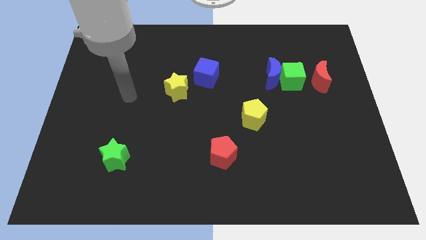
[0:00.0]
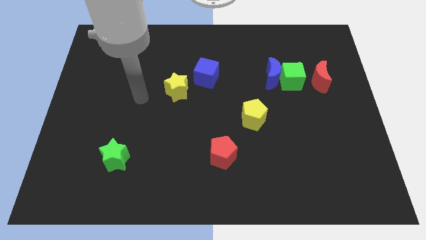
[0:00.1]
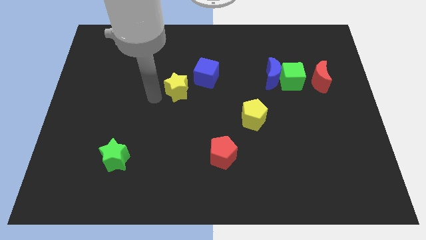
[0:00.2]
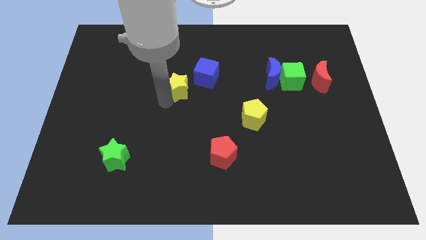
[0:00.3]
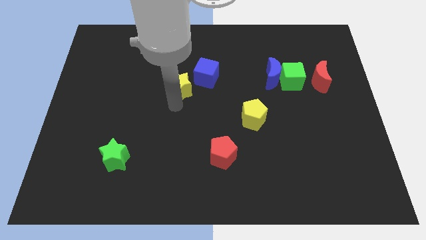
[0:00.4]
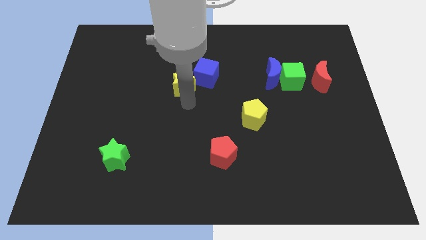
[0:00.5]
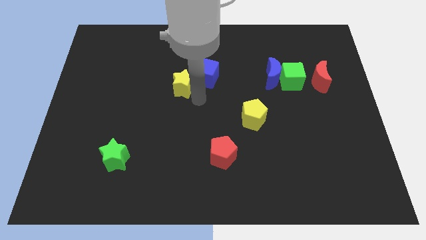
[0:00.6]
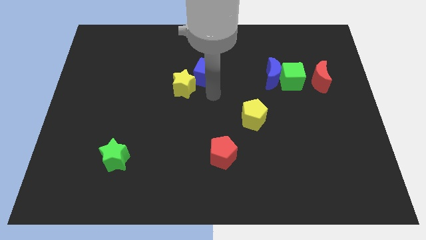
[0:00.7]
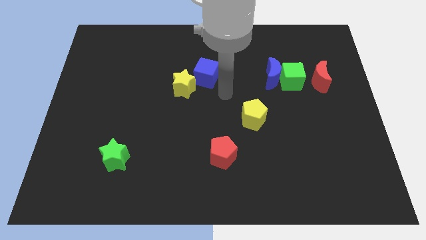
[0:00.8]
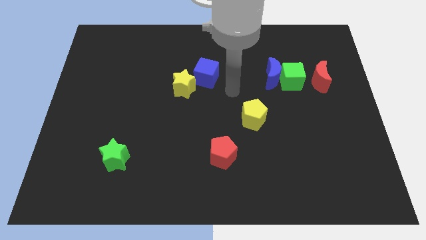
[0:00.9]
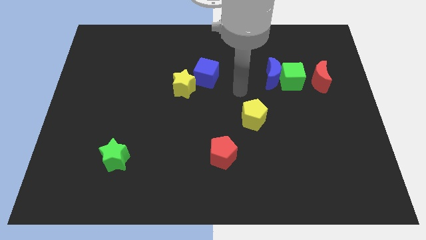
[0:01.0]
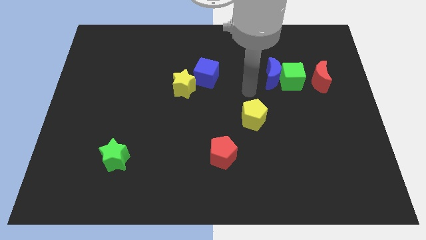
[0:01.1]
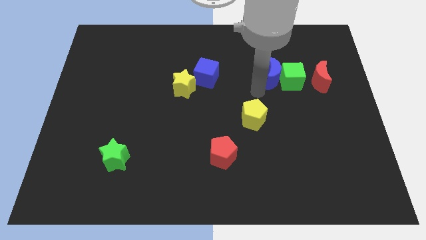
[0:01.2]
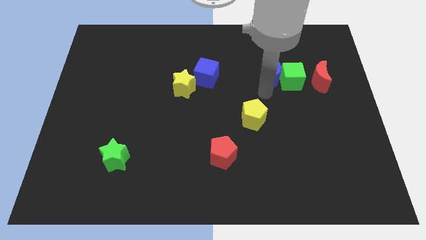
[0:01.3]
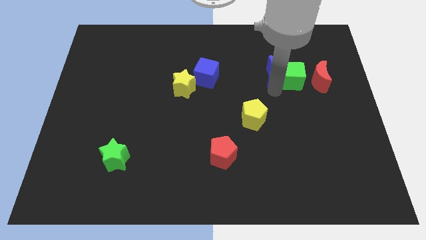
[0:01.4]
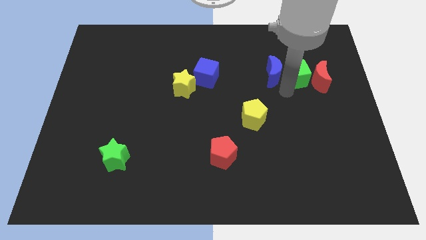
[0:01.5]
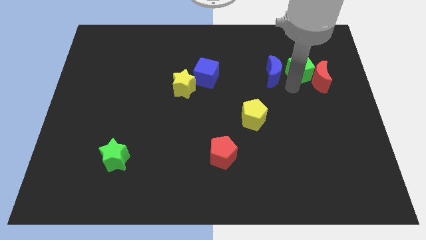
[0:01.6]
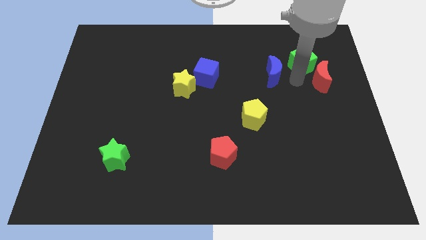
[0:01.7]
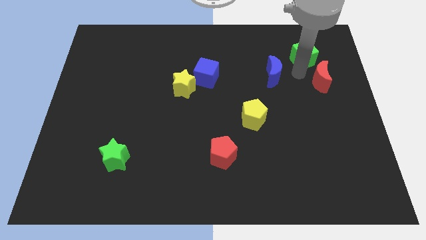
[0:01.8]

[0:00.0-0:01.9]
pull the blue moon apart from the green cube

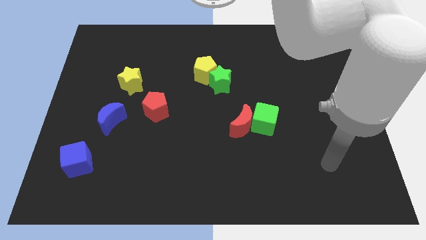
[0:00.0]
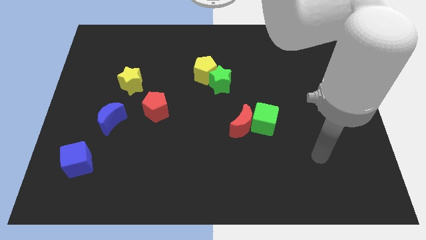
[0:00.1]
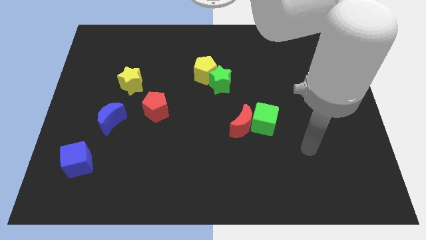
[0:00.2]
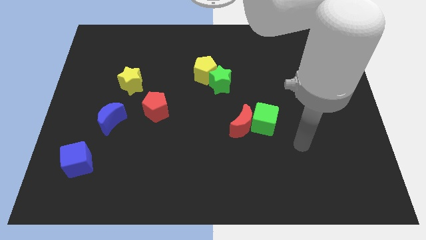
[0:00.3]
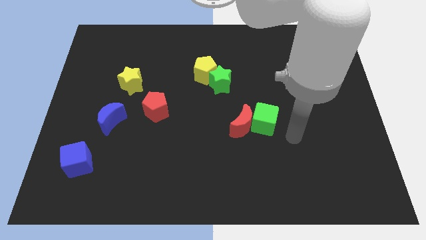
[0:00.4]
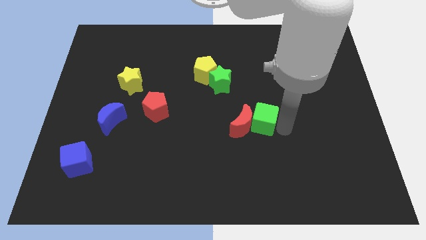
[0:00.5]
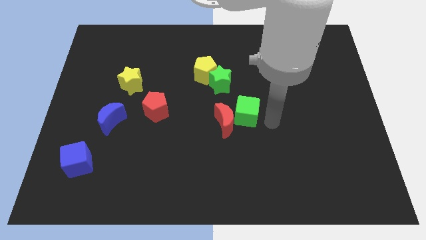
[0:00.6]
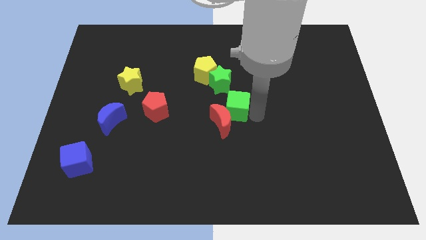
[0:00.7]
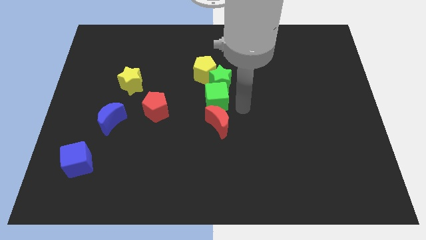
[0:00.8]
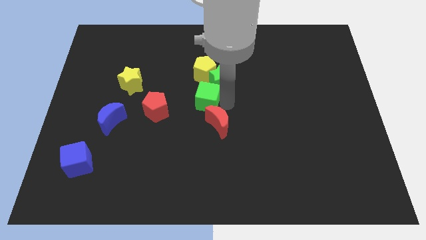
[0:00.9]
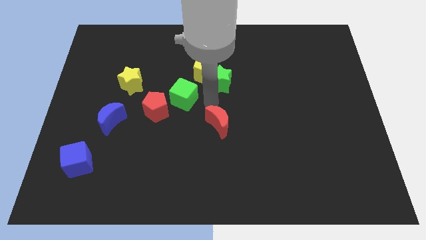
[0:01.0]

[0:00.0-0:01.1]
move the red moon away from the green cube

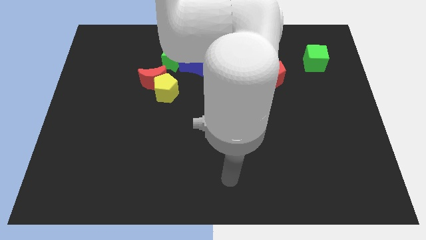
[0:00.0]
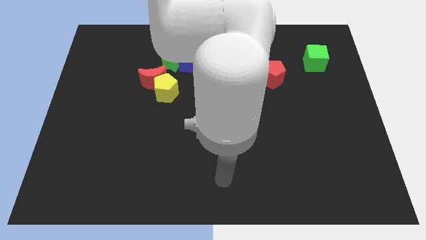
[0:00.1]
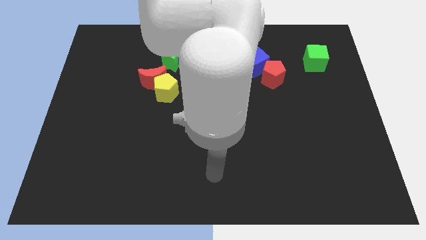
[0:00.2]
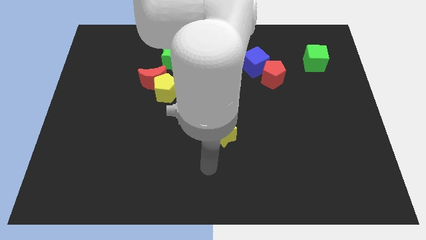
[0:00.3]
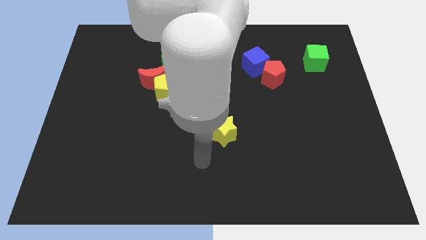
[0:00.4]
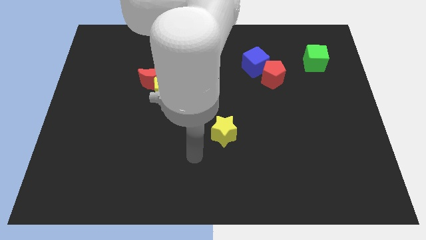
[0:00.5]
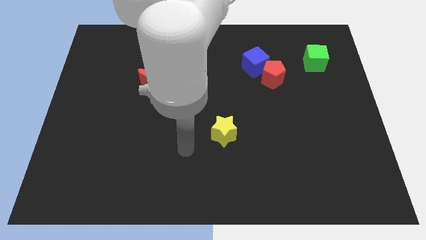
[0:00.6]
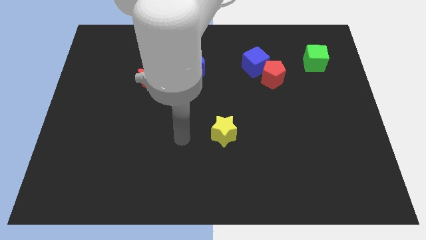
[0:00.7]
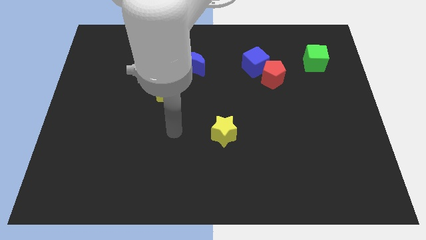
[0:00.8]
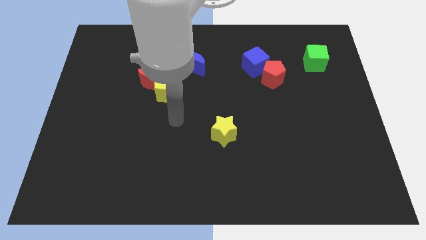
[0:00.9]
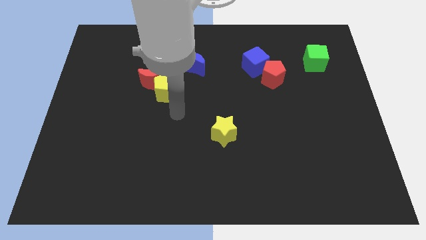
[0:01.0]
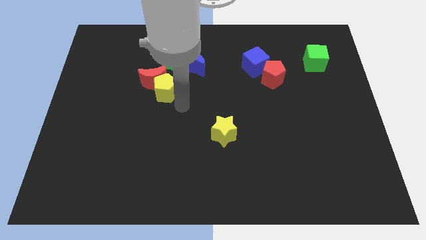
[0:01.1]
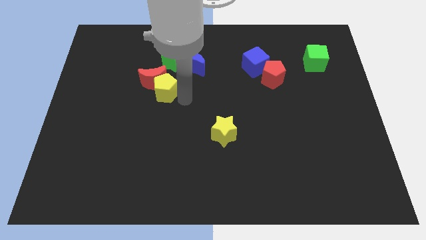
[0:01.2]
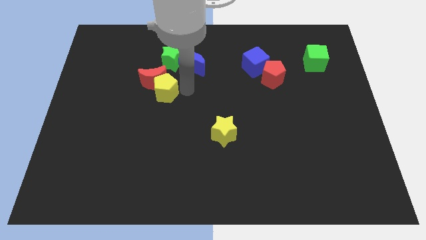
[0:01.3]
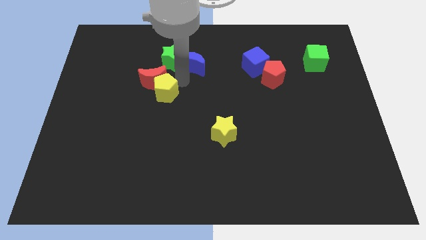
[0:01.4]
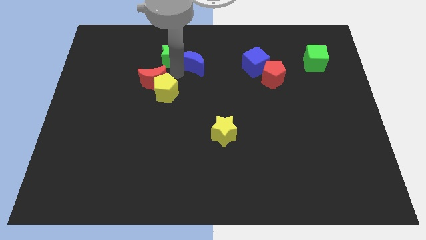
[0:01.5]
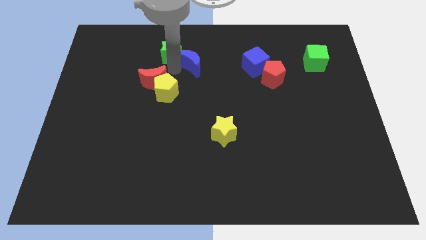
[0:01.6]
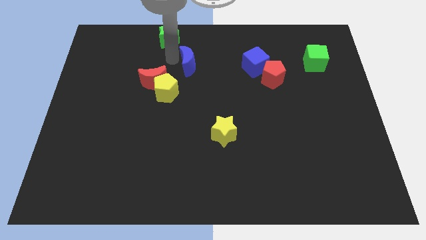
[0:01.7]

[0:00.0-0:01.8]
move the blue moon away from the green star

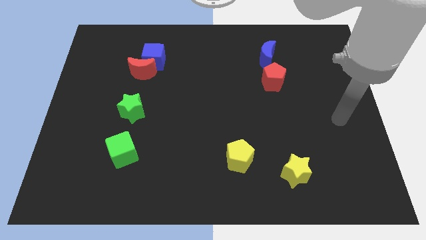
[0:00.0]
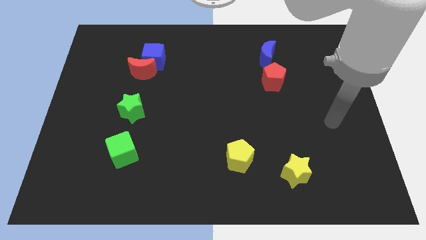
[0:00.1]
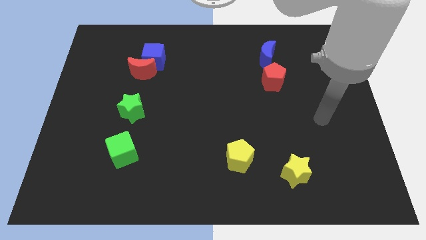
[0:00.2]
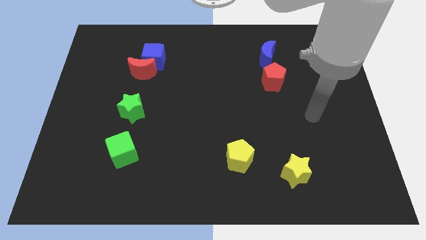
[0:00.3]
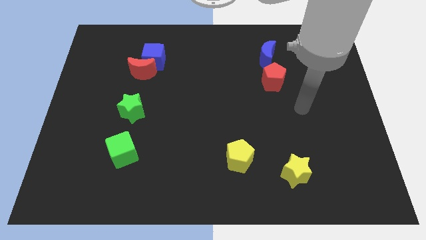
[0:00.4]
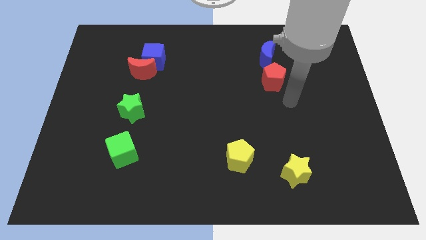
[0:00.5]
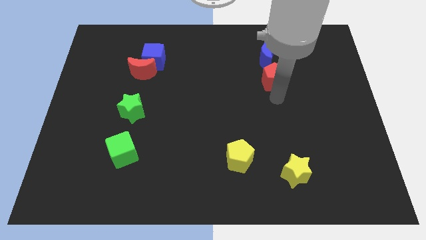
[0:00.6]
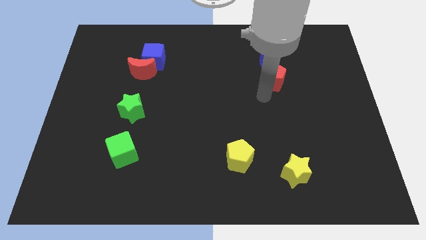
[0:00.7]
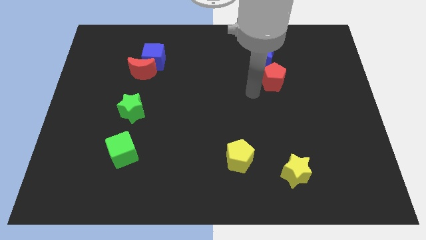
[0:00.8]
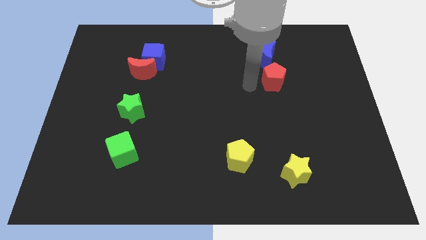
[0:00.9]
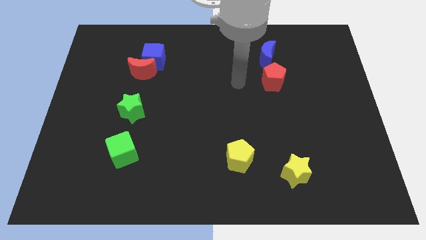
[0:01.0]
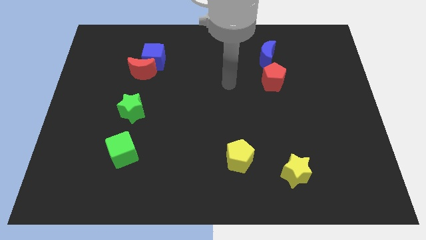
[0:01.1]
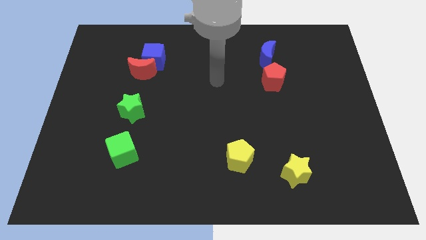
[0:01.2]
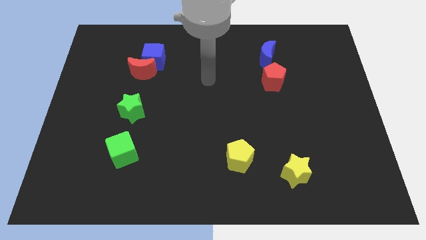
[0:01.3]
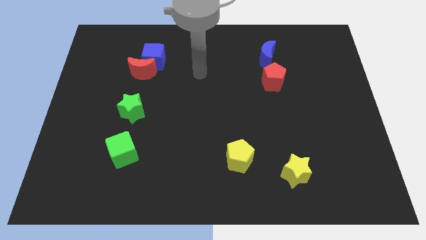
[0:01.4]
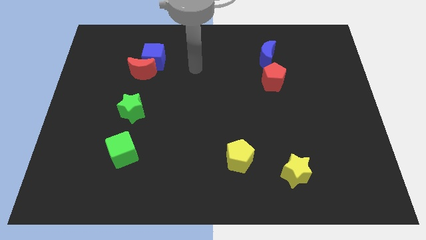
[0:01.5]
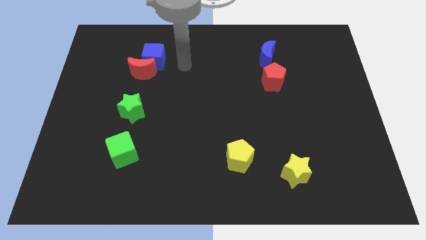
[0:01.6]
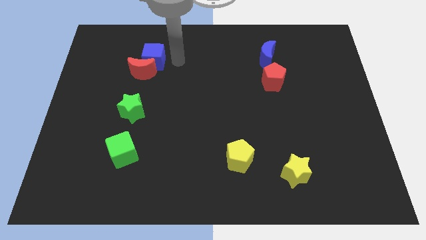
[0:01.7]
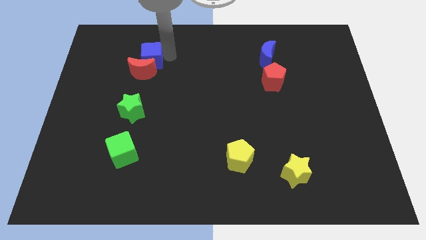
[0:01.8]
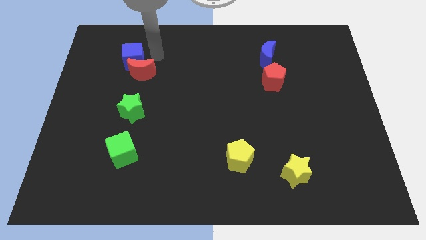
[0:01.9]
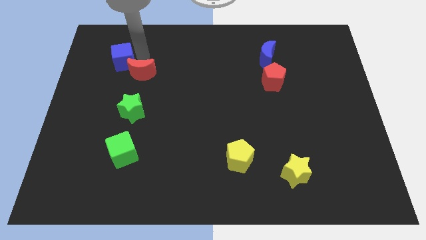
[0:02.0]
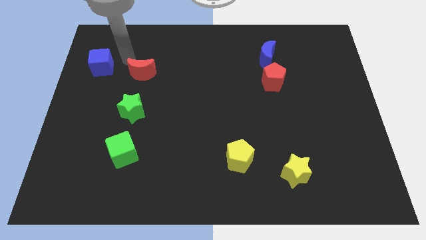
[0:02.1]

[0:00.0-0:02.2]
pull the red moon apart from the blue cube

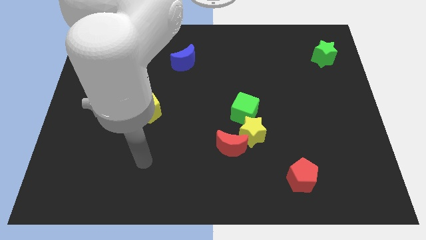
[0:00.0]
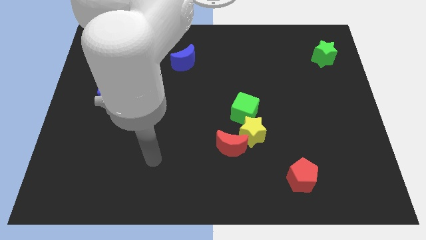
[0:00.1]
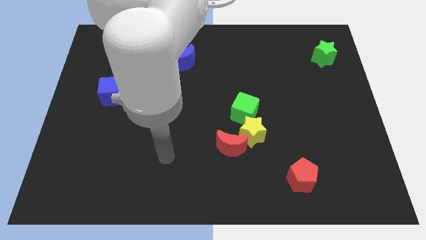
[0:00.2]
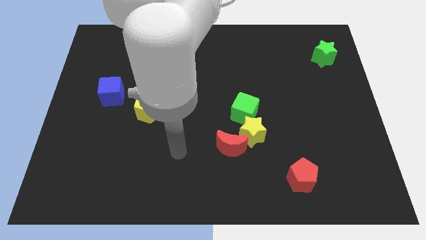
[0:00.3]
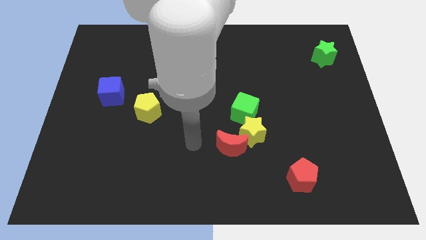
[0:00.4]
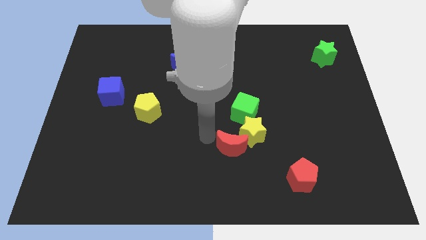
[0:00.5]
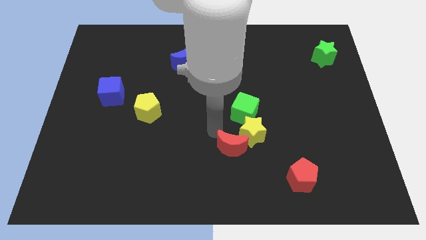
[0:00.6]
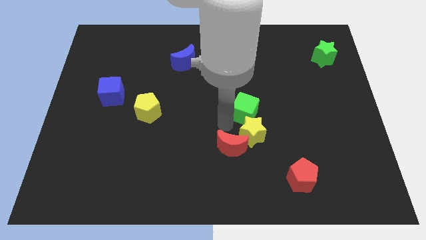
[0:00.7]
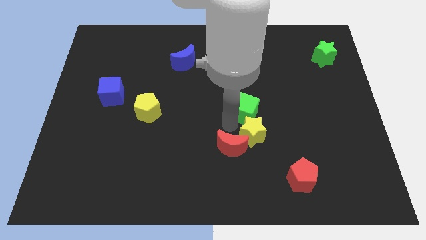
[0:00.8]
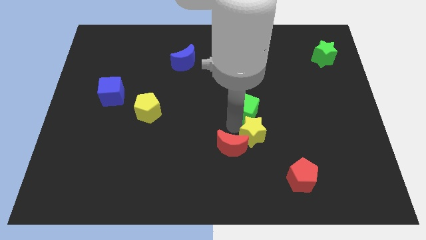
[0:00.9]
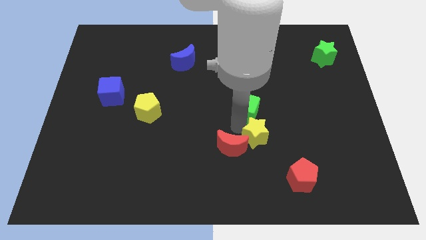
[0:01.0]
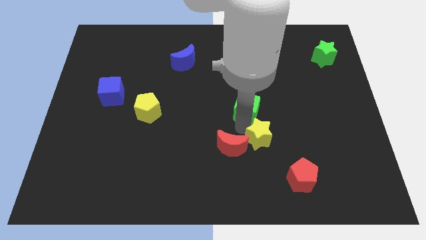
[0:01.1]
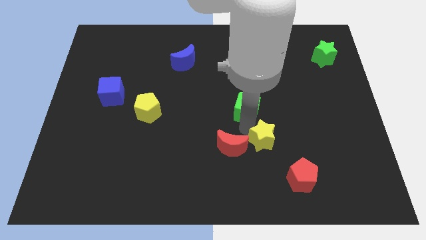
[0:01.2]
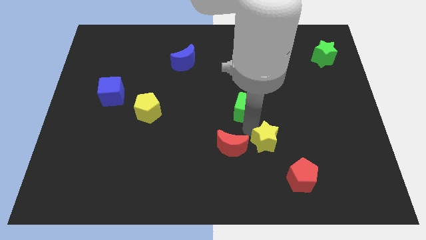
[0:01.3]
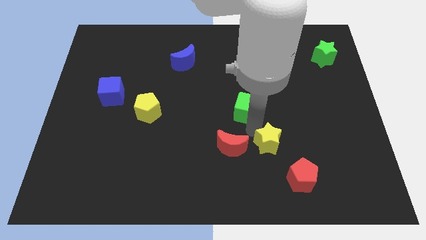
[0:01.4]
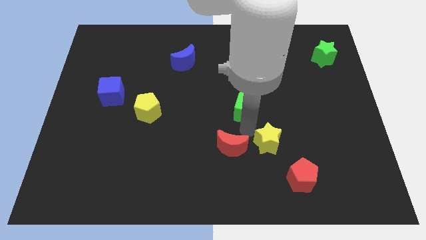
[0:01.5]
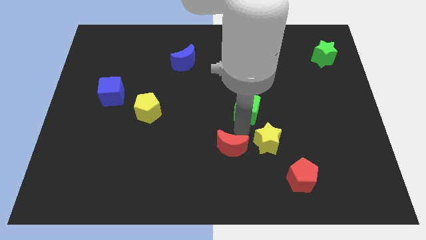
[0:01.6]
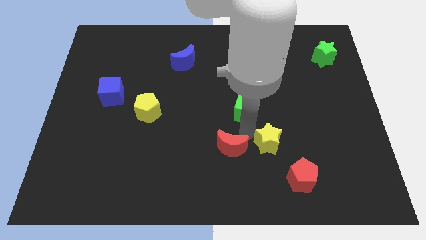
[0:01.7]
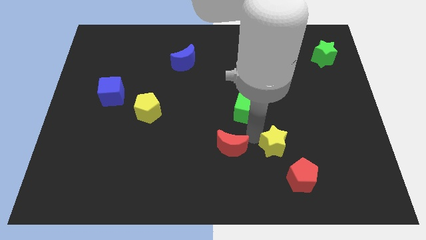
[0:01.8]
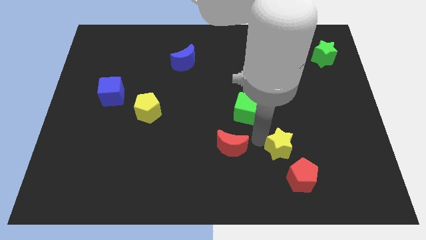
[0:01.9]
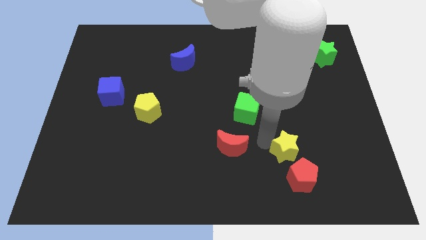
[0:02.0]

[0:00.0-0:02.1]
pull the yellow star apart from the red moon and green cube

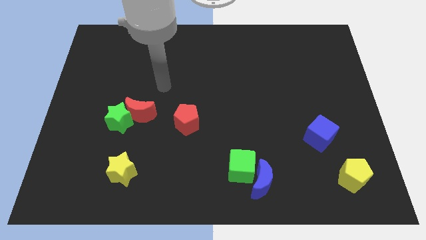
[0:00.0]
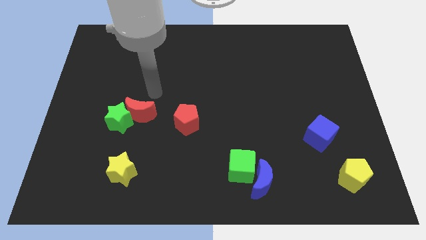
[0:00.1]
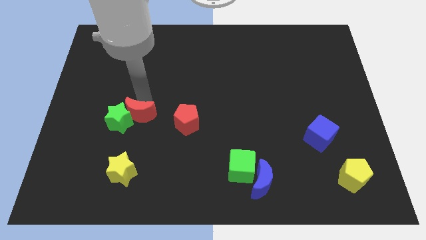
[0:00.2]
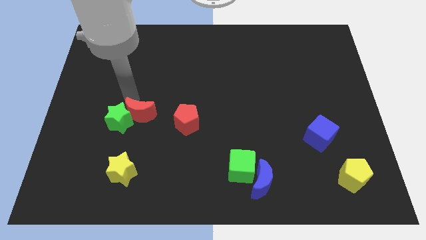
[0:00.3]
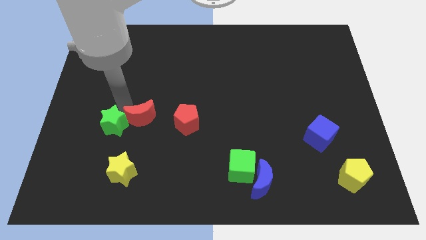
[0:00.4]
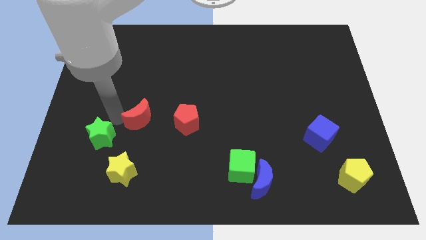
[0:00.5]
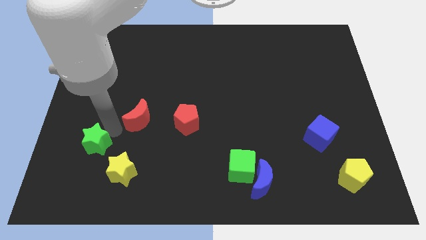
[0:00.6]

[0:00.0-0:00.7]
move the red moon away from the green star
